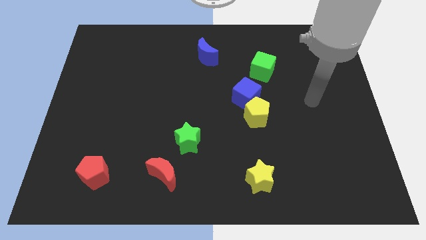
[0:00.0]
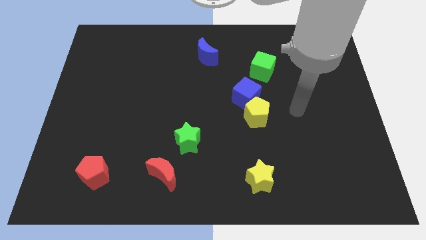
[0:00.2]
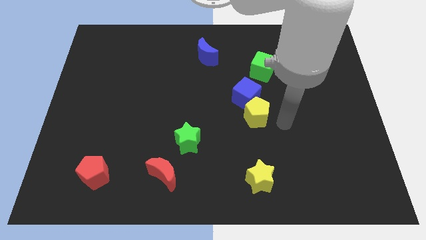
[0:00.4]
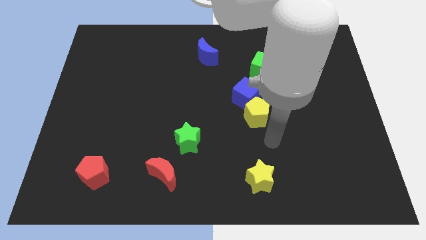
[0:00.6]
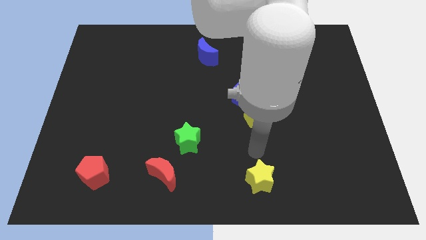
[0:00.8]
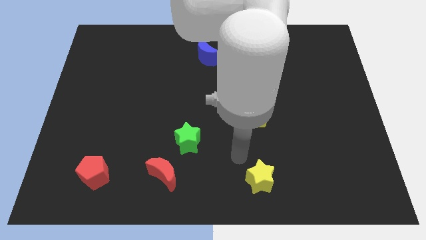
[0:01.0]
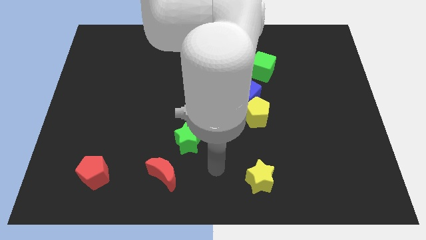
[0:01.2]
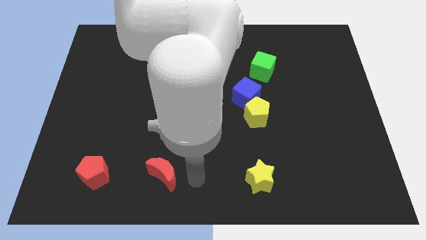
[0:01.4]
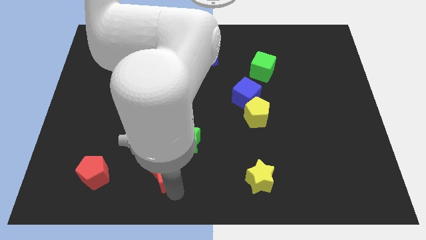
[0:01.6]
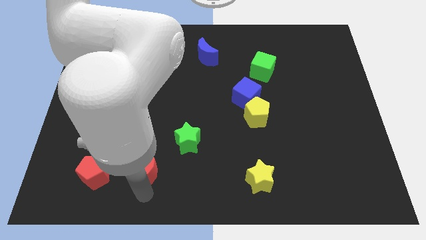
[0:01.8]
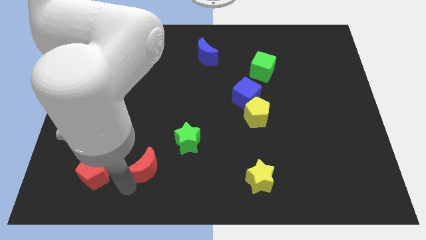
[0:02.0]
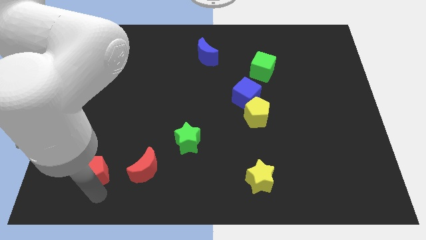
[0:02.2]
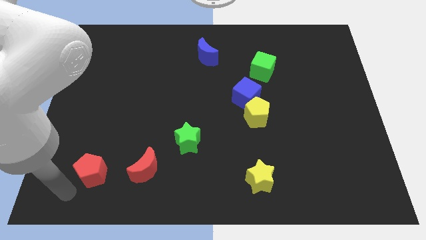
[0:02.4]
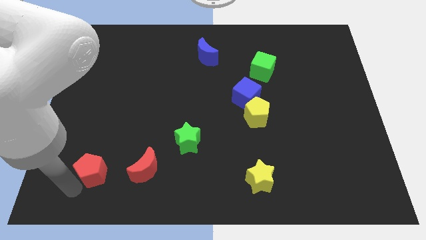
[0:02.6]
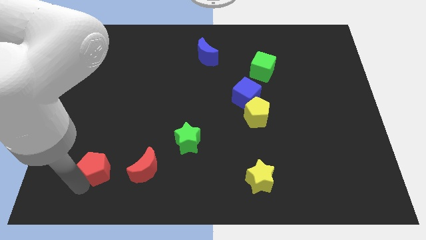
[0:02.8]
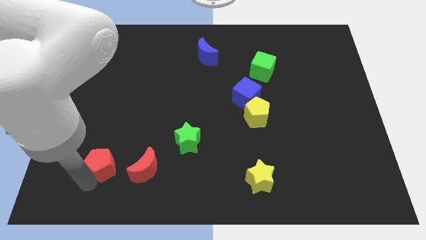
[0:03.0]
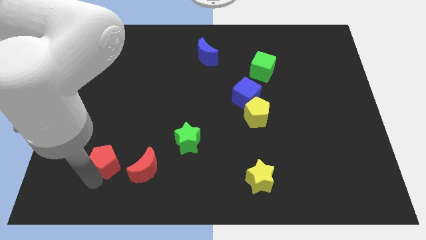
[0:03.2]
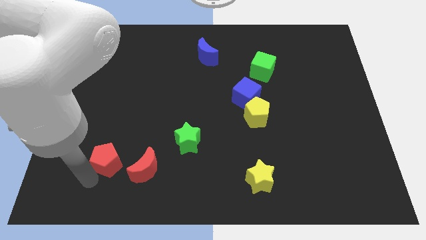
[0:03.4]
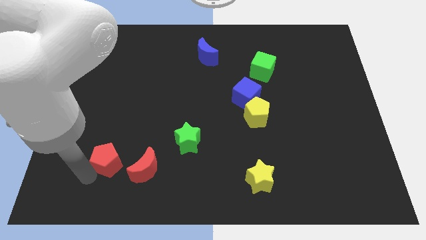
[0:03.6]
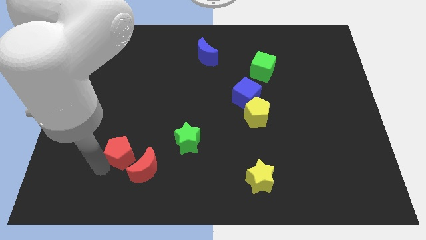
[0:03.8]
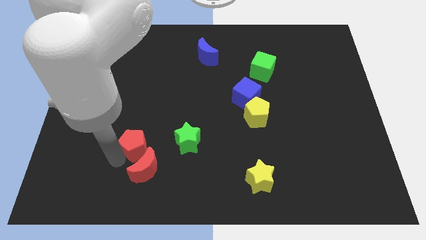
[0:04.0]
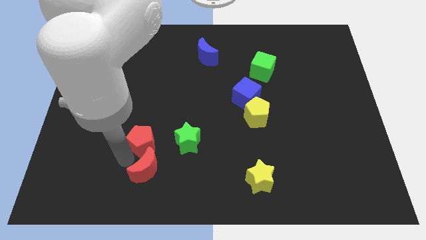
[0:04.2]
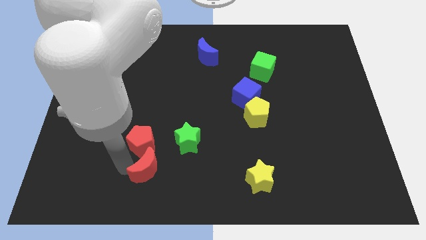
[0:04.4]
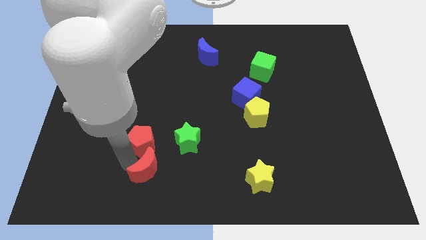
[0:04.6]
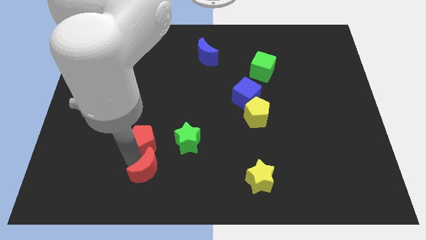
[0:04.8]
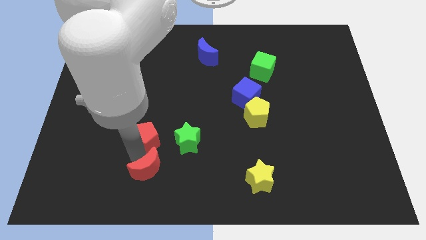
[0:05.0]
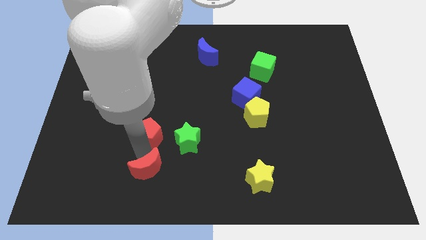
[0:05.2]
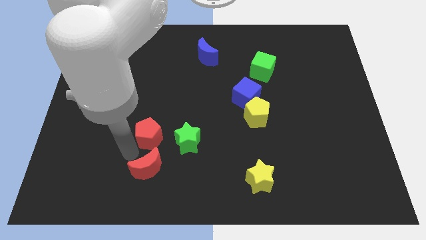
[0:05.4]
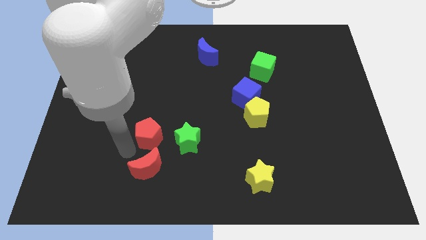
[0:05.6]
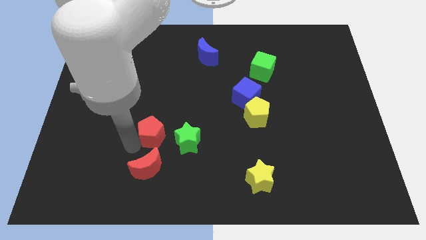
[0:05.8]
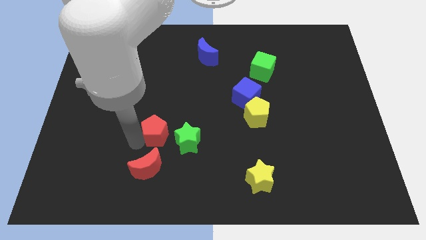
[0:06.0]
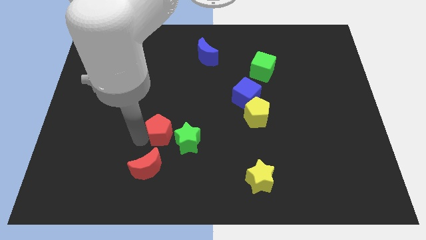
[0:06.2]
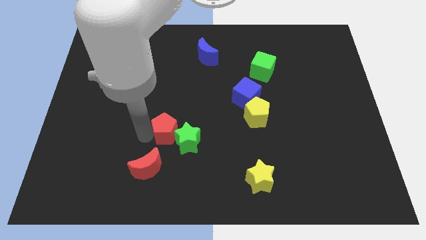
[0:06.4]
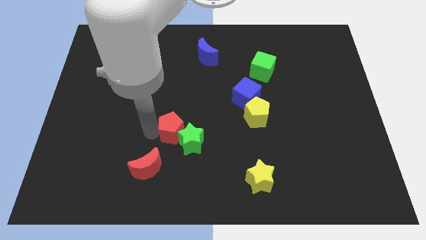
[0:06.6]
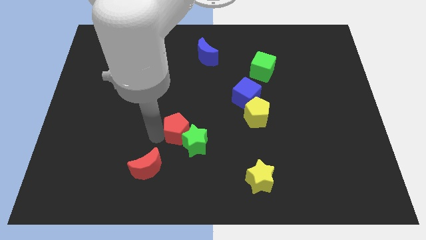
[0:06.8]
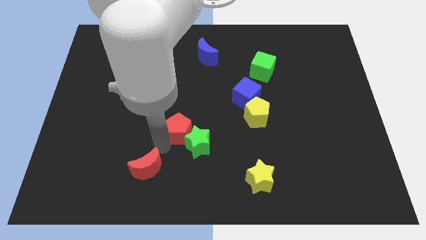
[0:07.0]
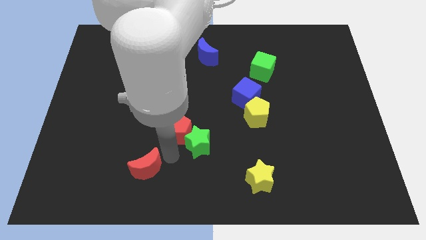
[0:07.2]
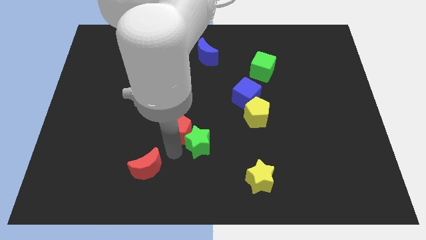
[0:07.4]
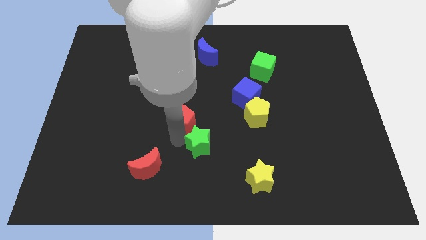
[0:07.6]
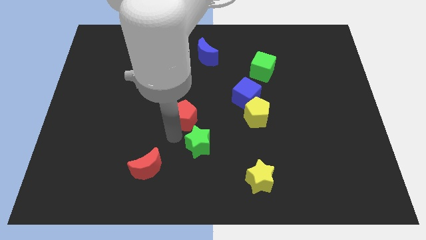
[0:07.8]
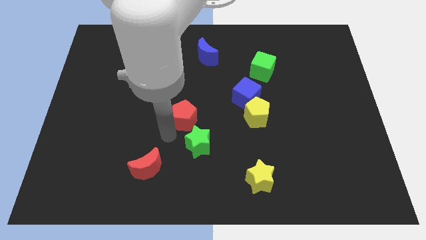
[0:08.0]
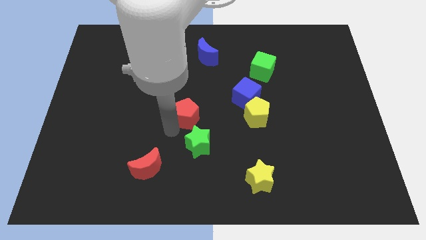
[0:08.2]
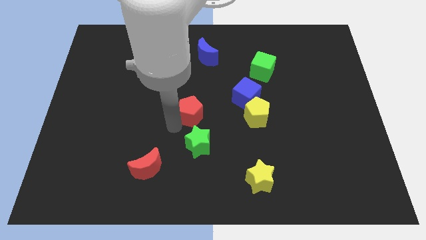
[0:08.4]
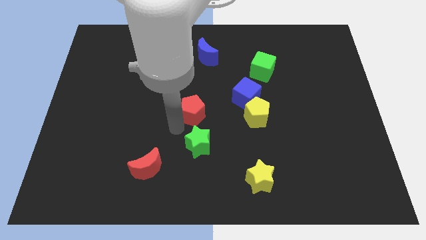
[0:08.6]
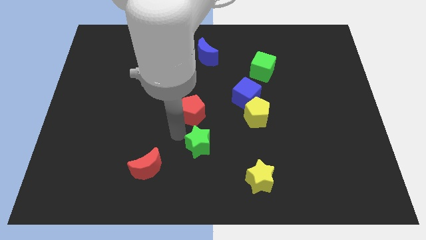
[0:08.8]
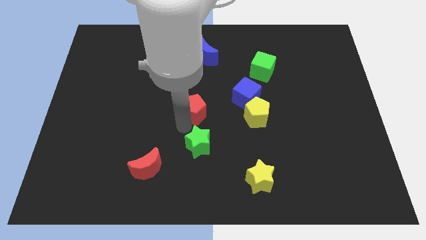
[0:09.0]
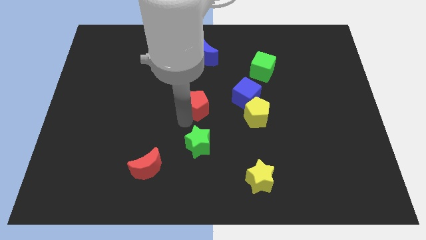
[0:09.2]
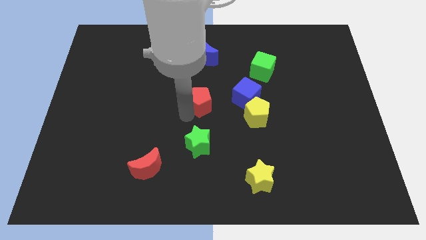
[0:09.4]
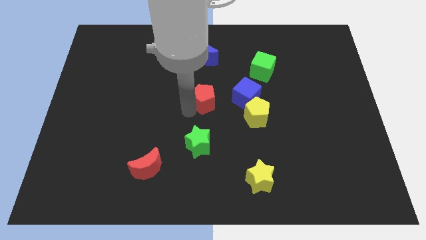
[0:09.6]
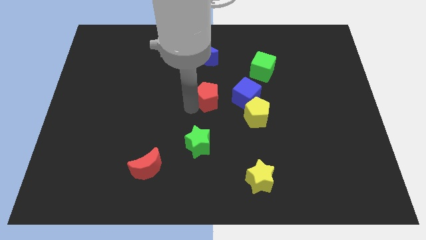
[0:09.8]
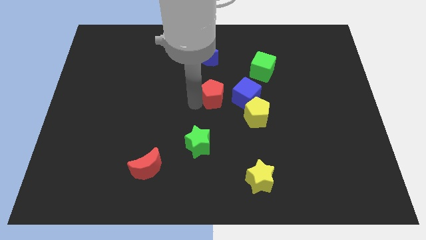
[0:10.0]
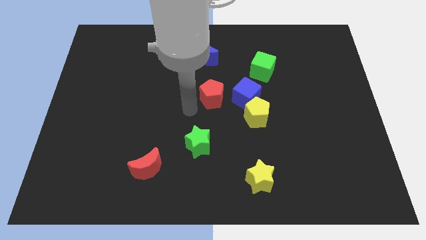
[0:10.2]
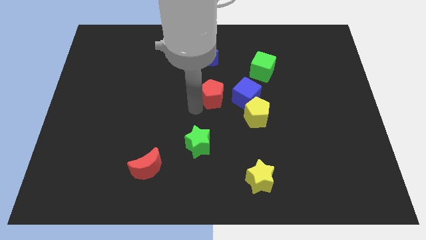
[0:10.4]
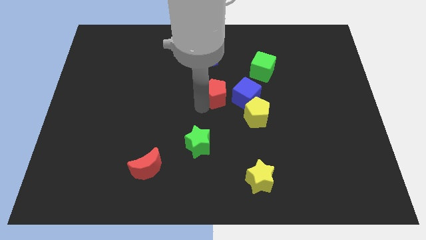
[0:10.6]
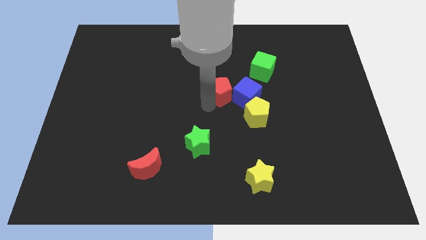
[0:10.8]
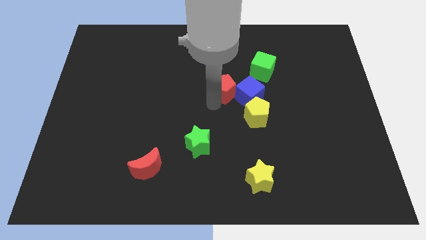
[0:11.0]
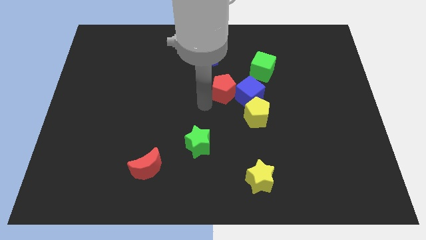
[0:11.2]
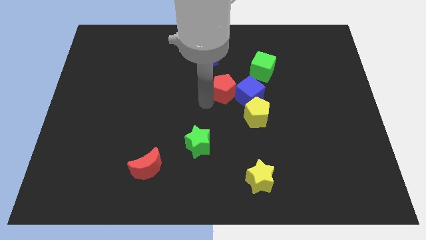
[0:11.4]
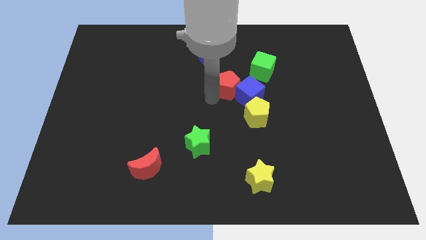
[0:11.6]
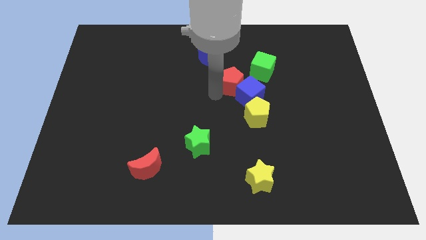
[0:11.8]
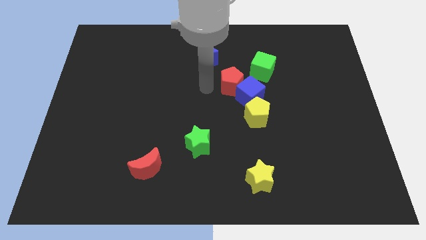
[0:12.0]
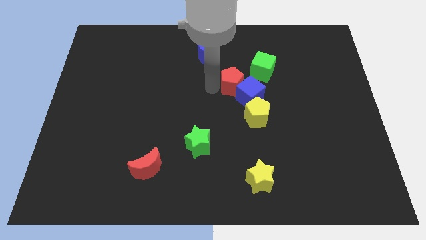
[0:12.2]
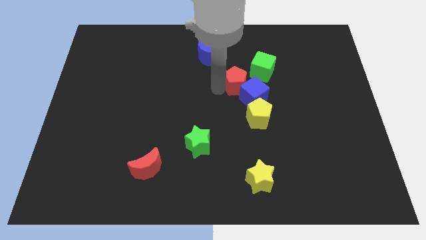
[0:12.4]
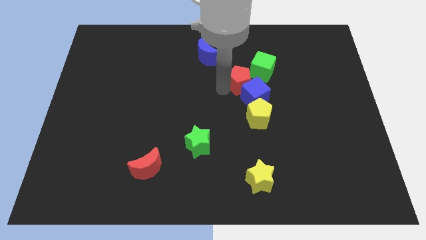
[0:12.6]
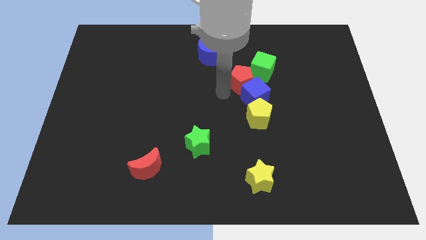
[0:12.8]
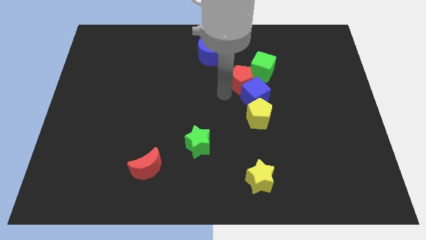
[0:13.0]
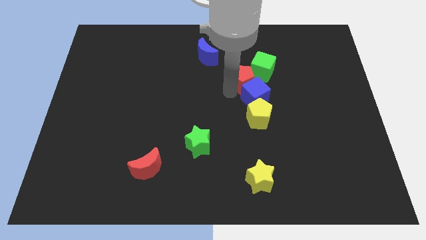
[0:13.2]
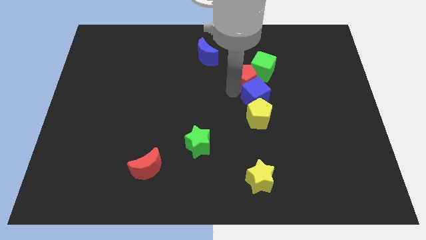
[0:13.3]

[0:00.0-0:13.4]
put the red pentagon close to the green cube
